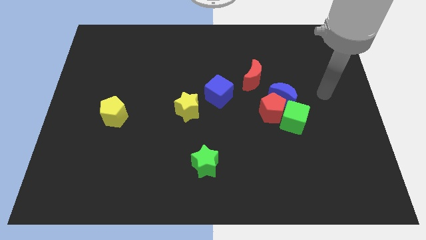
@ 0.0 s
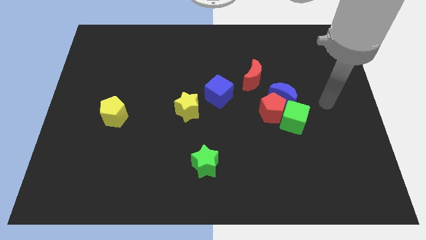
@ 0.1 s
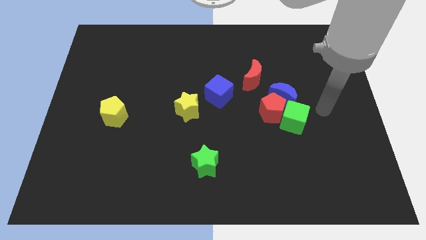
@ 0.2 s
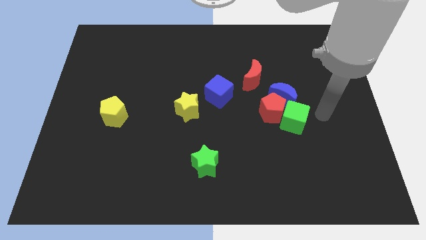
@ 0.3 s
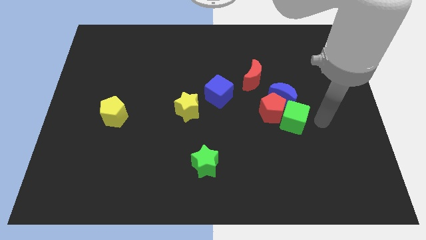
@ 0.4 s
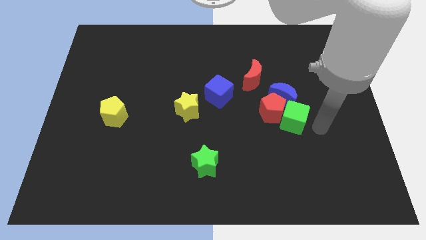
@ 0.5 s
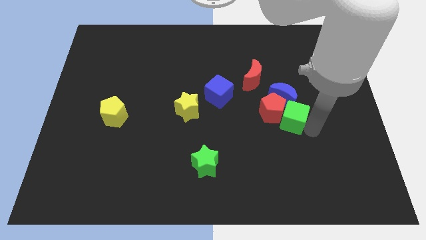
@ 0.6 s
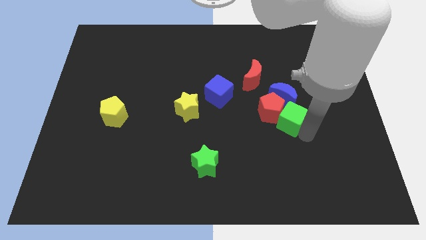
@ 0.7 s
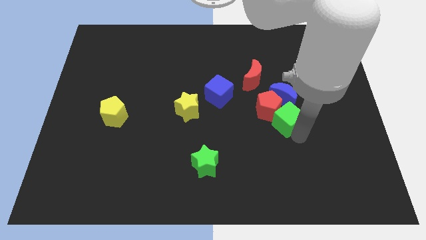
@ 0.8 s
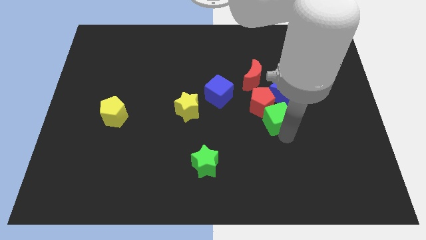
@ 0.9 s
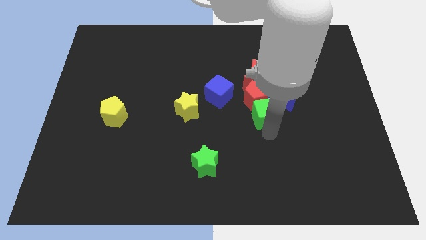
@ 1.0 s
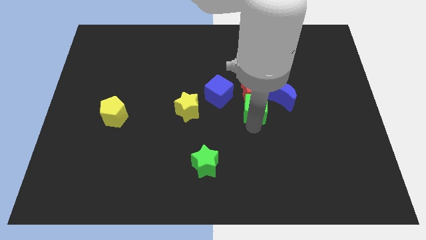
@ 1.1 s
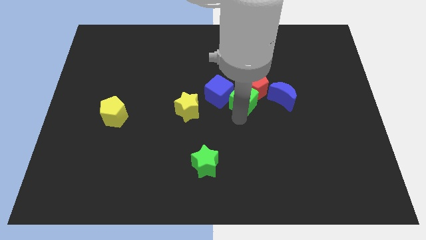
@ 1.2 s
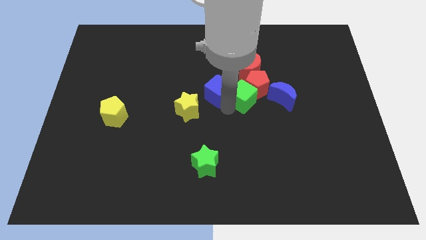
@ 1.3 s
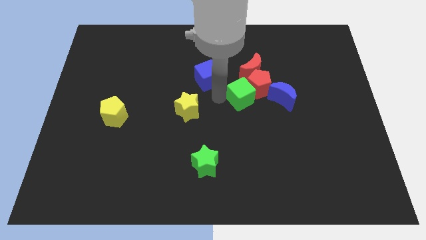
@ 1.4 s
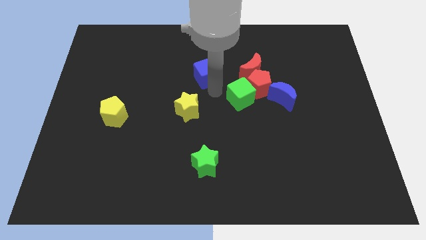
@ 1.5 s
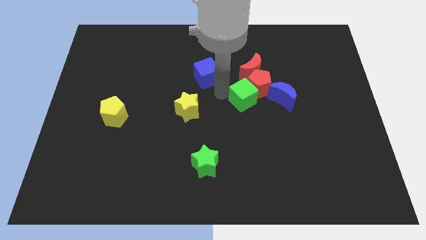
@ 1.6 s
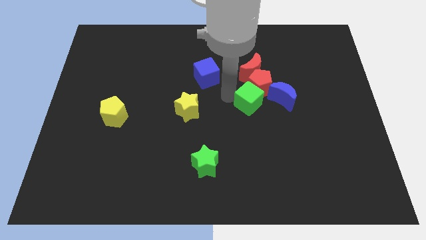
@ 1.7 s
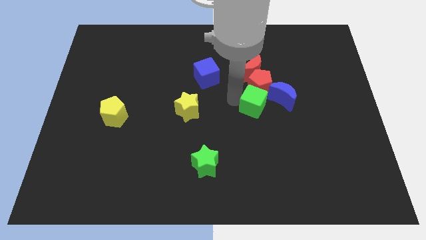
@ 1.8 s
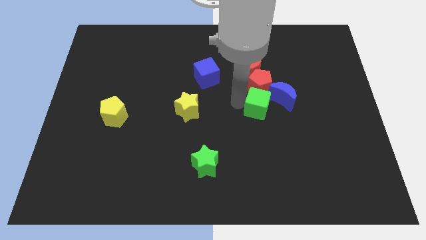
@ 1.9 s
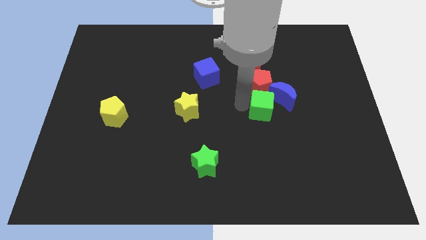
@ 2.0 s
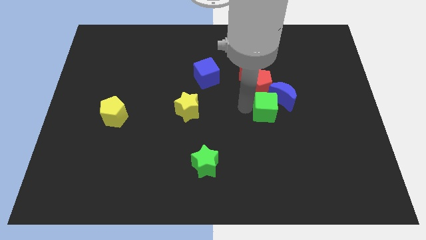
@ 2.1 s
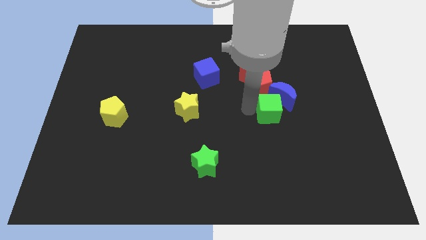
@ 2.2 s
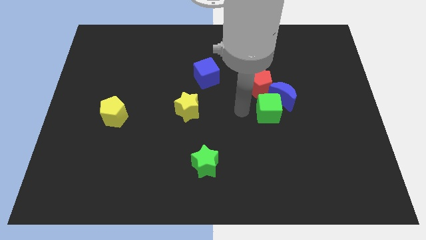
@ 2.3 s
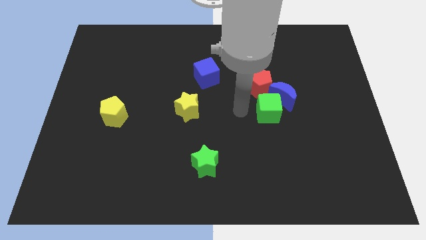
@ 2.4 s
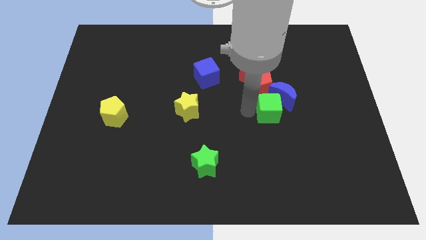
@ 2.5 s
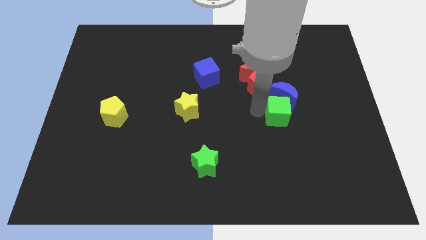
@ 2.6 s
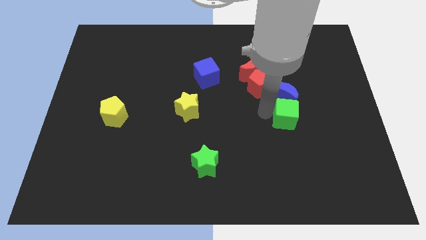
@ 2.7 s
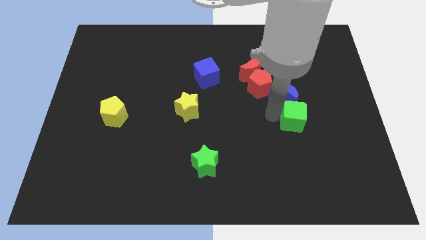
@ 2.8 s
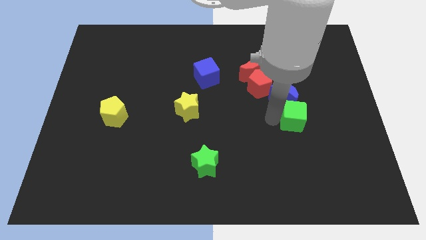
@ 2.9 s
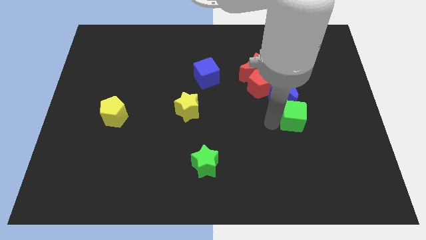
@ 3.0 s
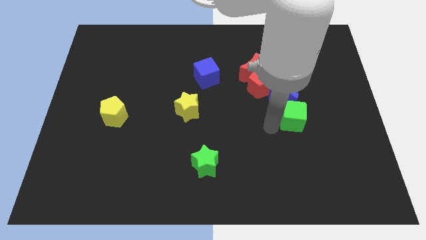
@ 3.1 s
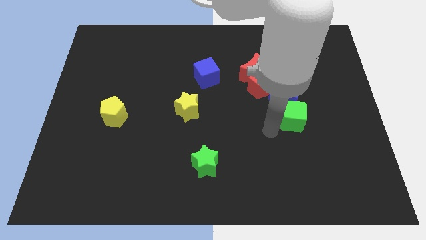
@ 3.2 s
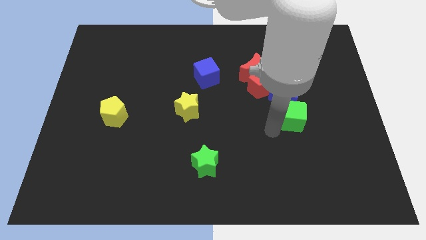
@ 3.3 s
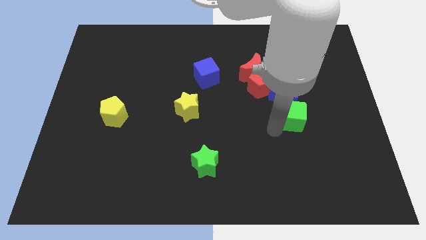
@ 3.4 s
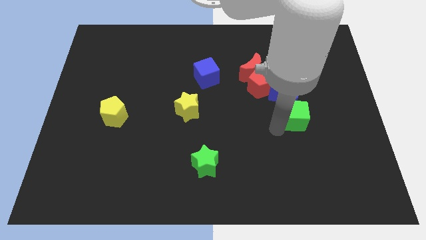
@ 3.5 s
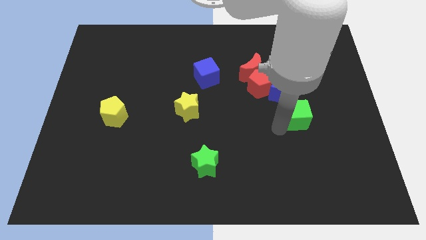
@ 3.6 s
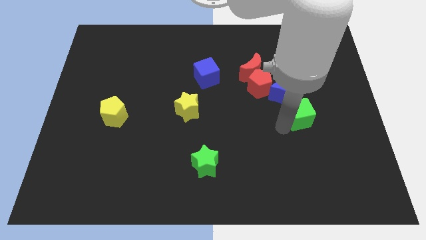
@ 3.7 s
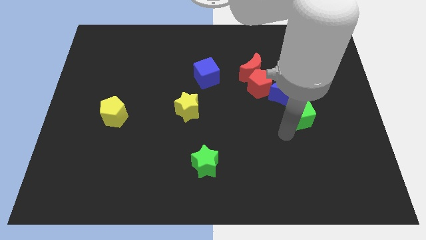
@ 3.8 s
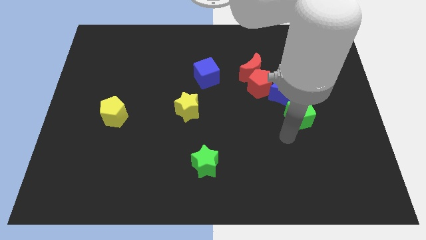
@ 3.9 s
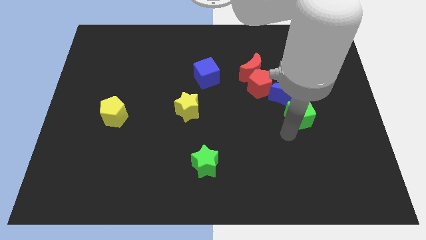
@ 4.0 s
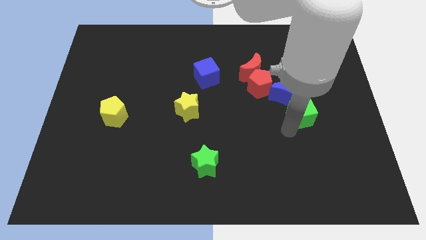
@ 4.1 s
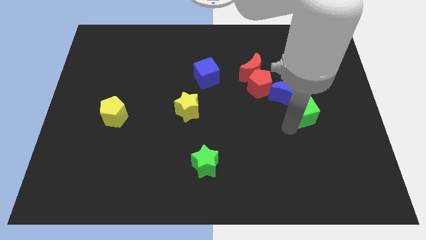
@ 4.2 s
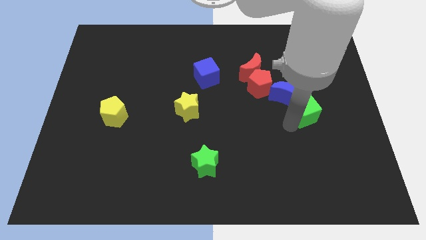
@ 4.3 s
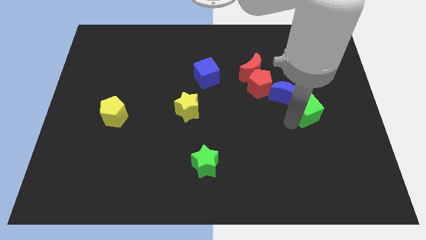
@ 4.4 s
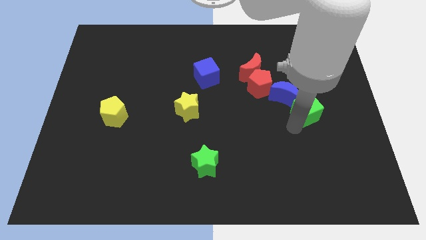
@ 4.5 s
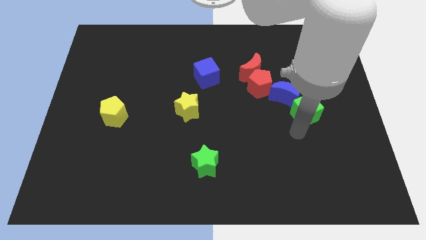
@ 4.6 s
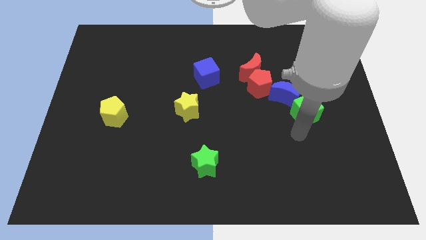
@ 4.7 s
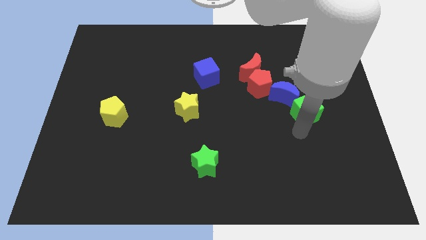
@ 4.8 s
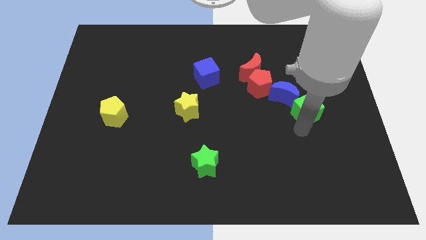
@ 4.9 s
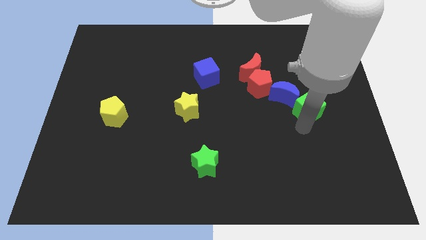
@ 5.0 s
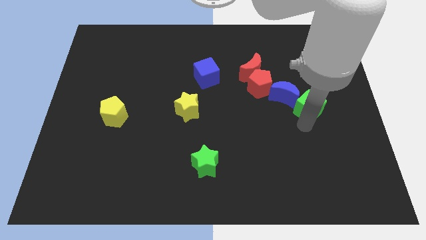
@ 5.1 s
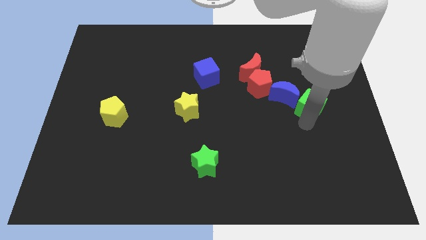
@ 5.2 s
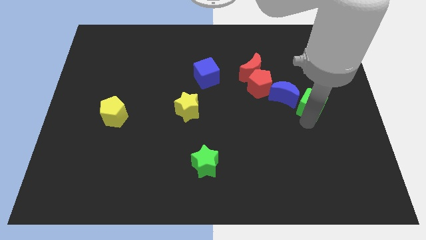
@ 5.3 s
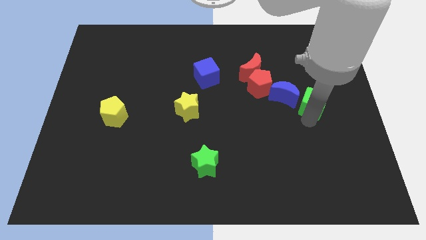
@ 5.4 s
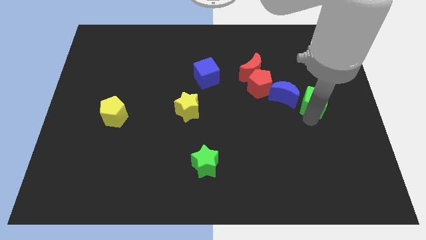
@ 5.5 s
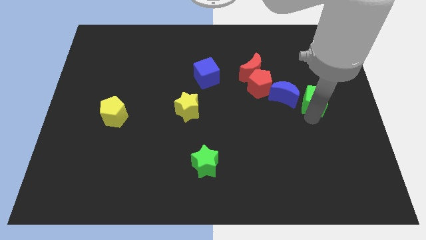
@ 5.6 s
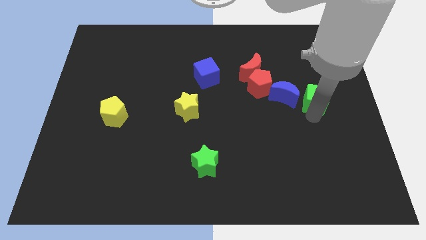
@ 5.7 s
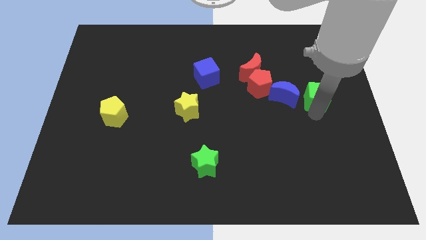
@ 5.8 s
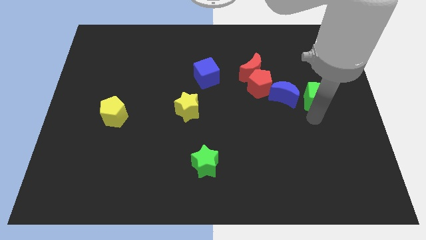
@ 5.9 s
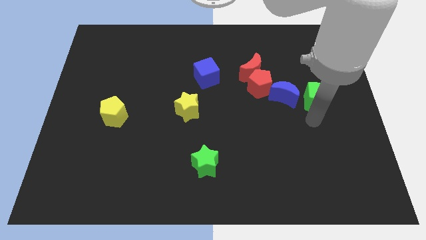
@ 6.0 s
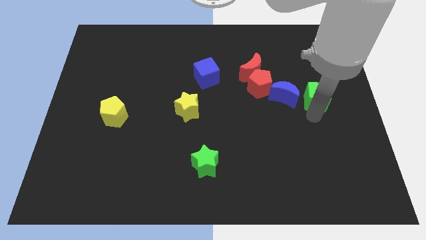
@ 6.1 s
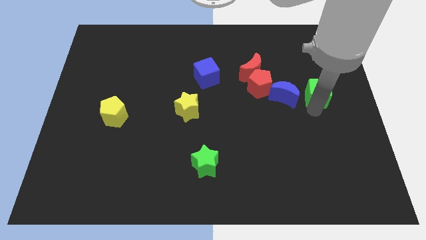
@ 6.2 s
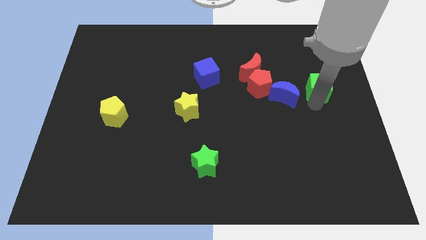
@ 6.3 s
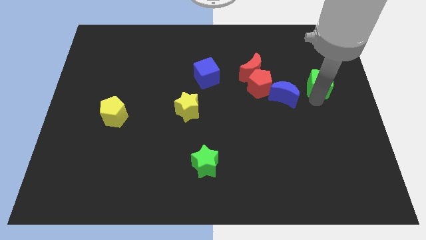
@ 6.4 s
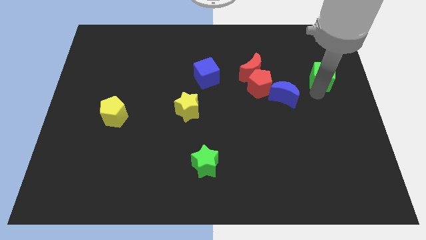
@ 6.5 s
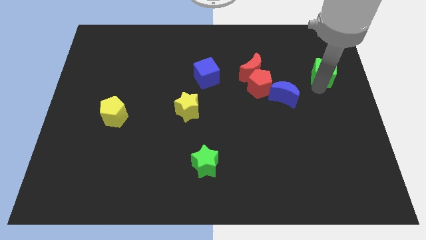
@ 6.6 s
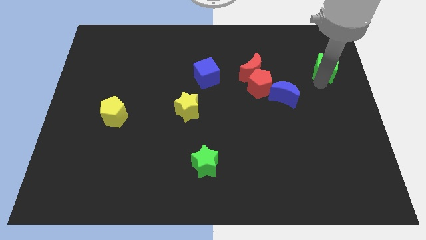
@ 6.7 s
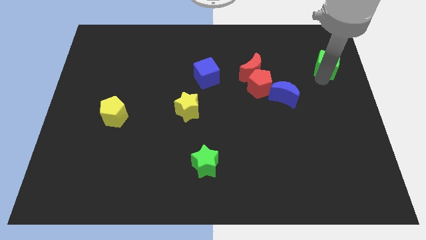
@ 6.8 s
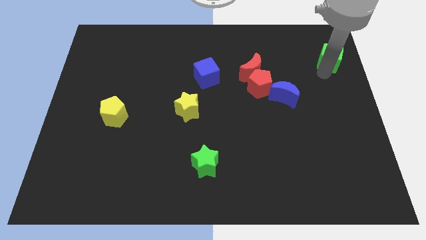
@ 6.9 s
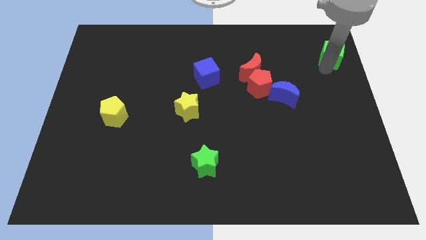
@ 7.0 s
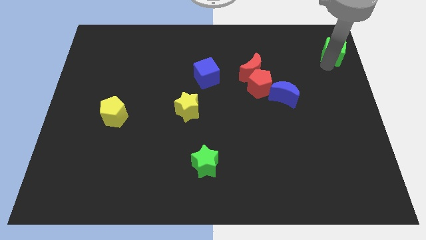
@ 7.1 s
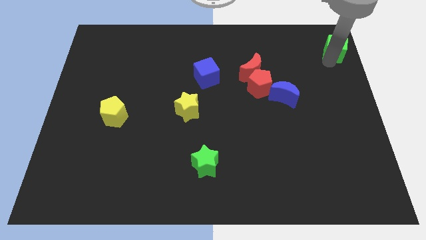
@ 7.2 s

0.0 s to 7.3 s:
slide the green cube to the top right of the board
